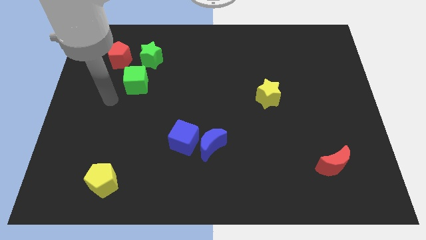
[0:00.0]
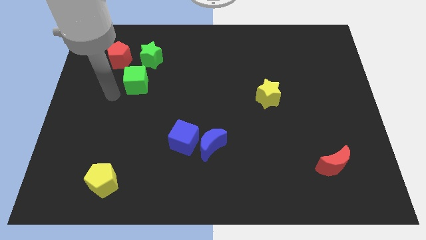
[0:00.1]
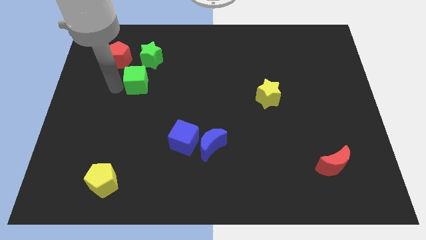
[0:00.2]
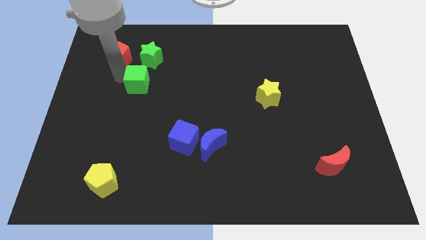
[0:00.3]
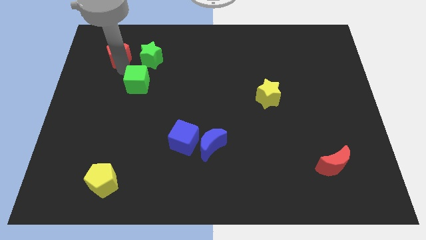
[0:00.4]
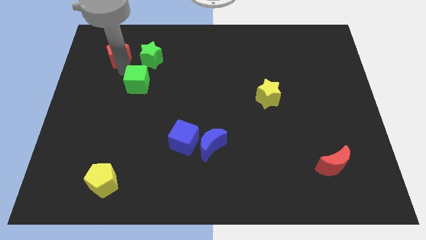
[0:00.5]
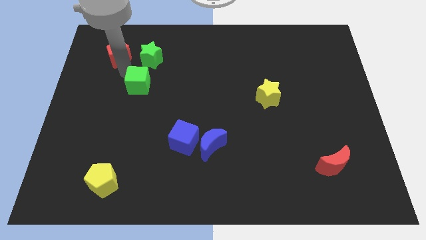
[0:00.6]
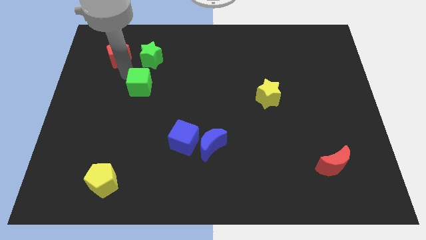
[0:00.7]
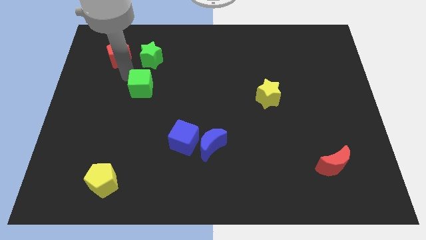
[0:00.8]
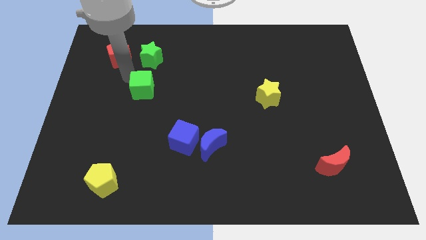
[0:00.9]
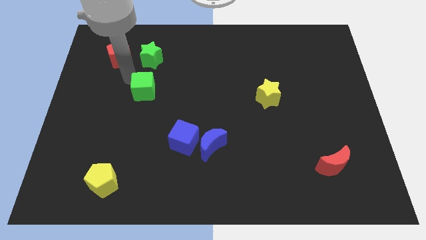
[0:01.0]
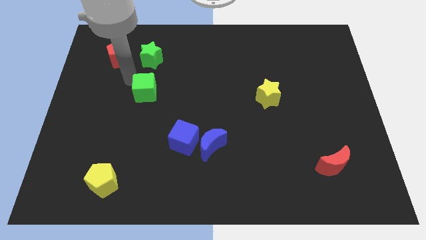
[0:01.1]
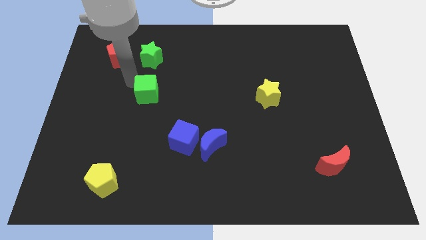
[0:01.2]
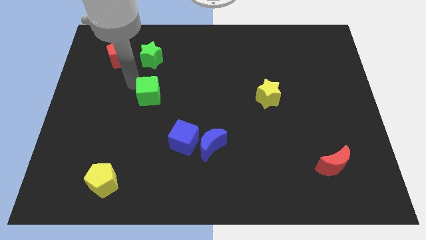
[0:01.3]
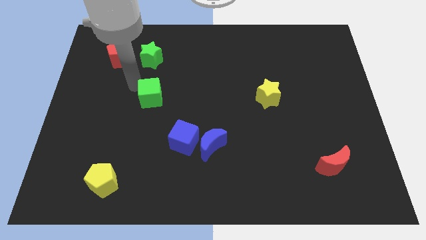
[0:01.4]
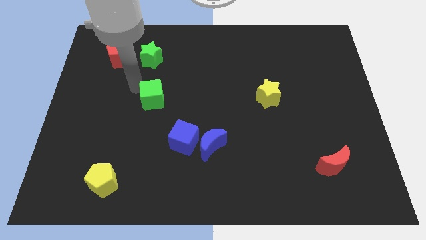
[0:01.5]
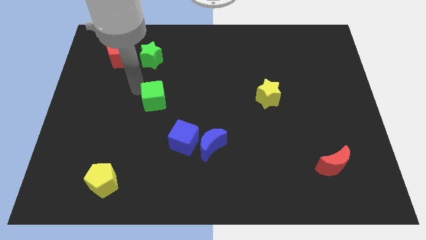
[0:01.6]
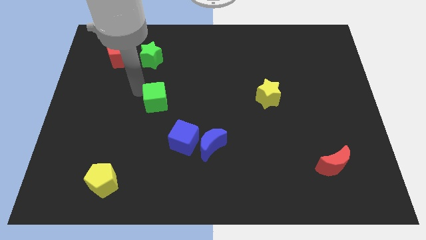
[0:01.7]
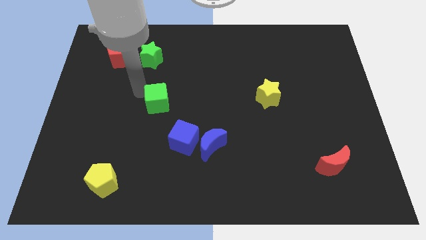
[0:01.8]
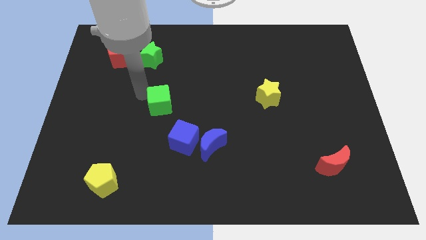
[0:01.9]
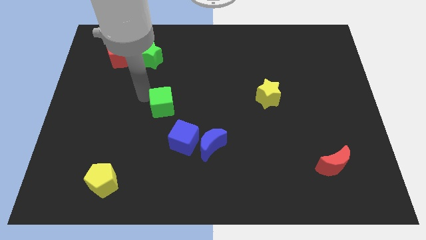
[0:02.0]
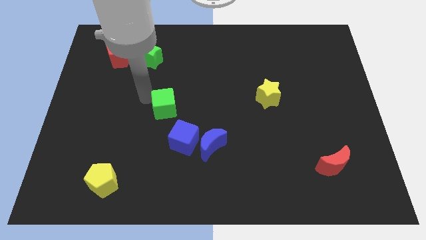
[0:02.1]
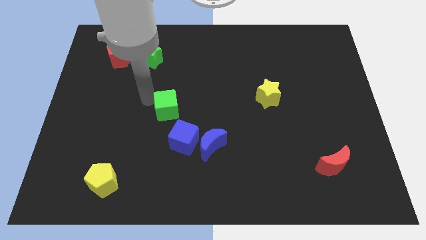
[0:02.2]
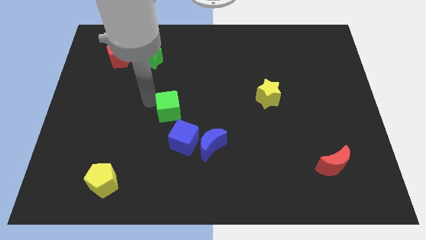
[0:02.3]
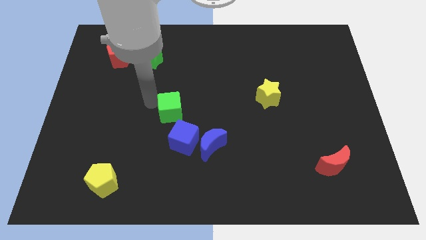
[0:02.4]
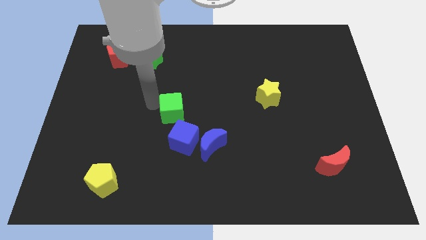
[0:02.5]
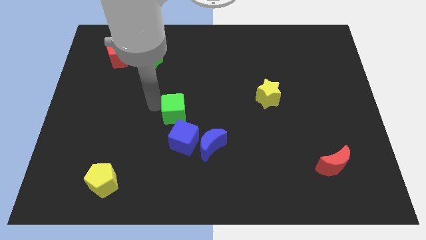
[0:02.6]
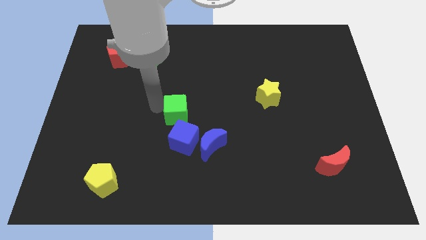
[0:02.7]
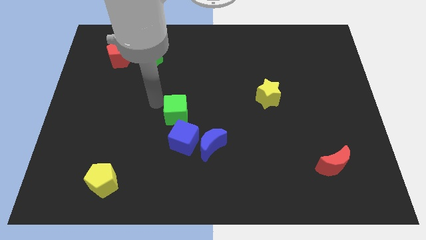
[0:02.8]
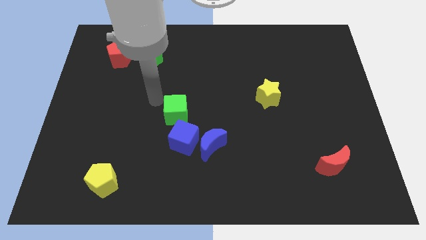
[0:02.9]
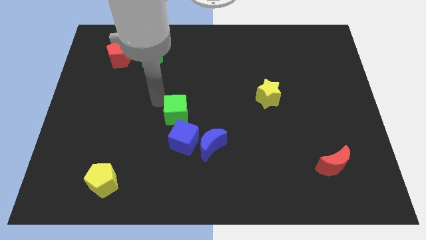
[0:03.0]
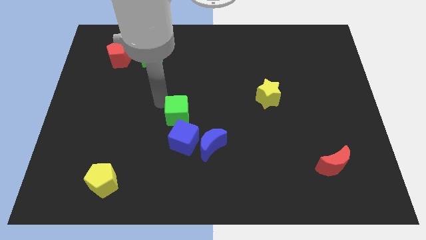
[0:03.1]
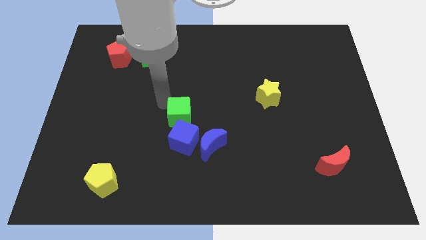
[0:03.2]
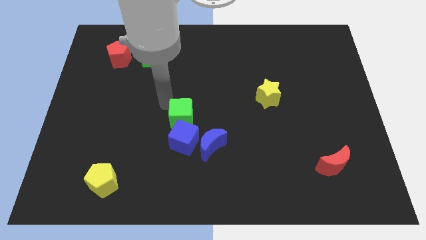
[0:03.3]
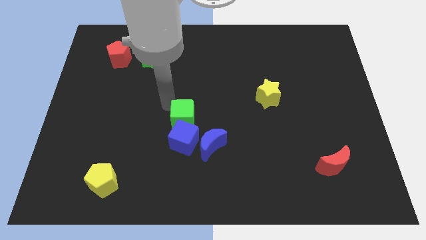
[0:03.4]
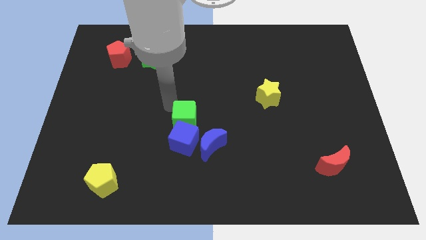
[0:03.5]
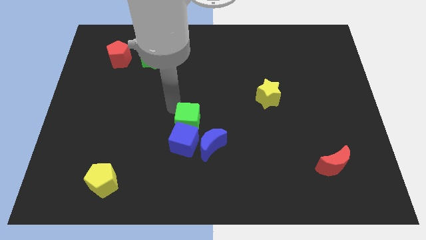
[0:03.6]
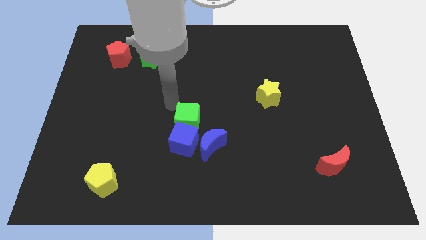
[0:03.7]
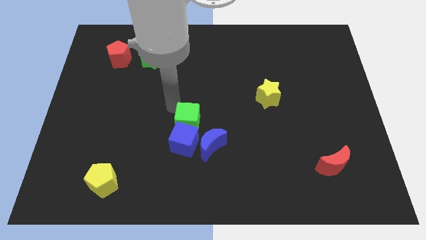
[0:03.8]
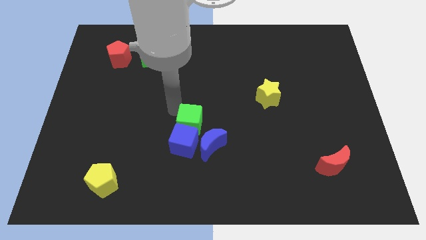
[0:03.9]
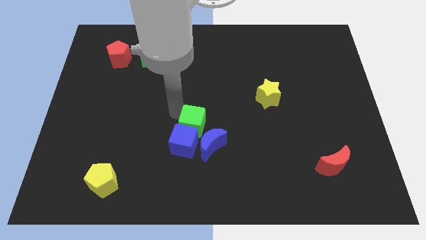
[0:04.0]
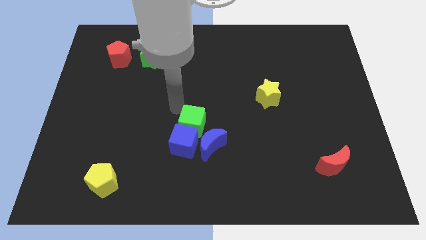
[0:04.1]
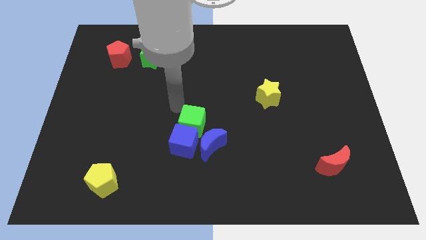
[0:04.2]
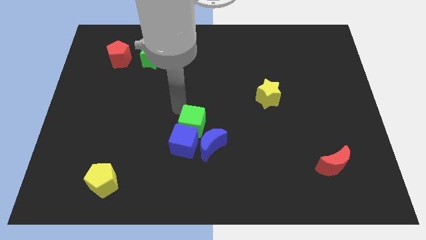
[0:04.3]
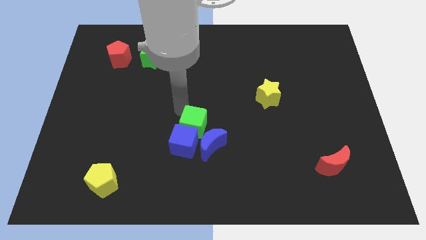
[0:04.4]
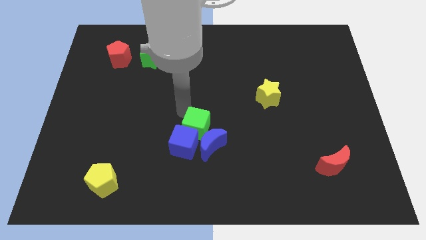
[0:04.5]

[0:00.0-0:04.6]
push the green cube close to the blue moon

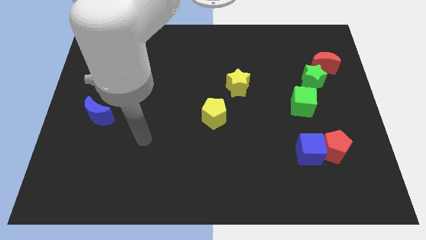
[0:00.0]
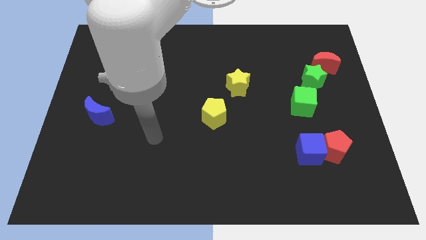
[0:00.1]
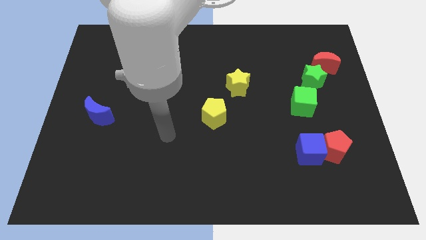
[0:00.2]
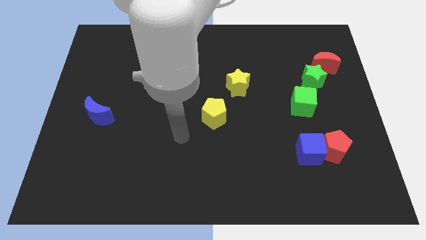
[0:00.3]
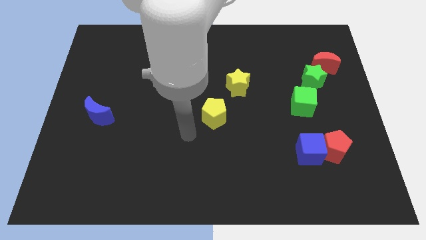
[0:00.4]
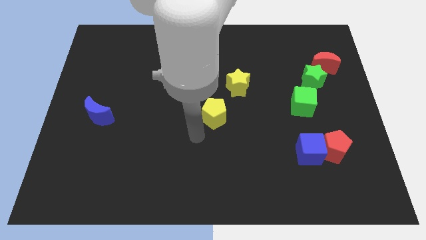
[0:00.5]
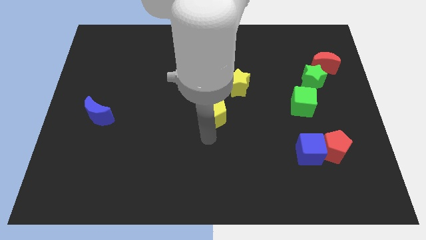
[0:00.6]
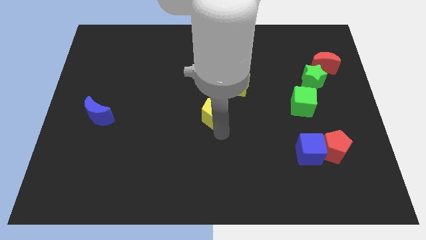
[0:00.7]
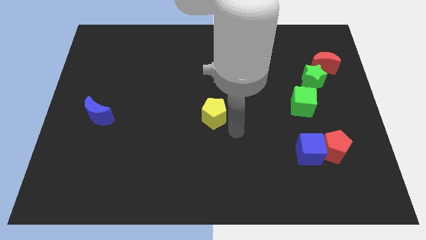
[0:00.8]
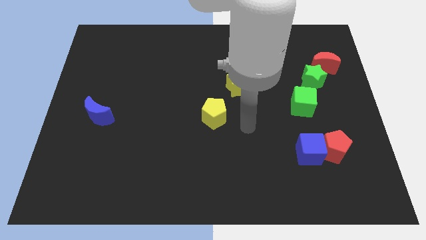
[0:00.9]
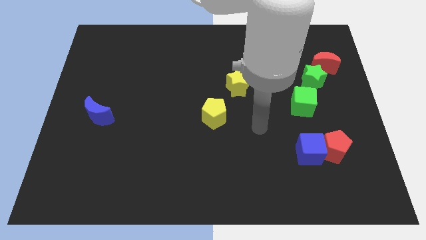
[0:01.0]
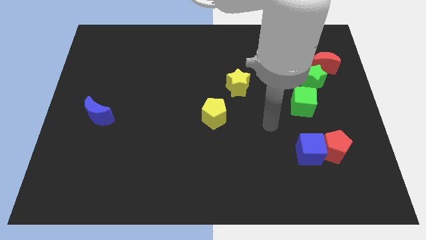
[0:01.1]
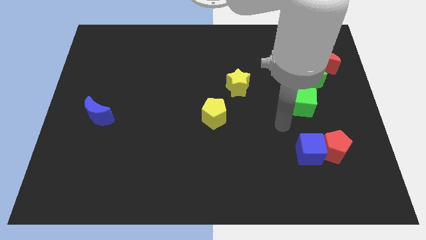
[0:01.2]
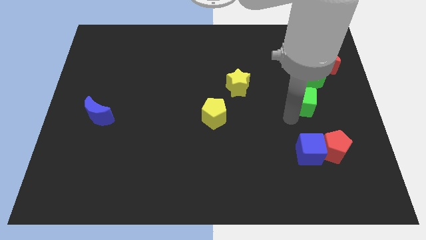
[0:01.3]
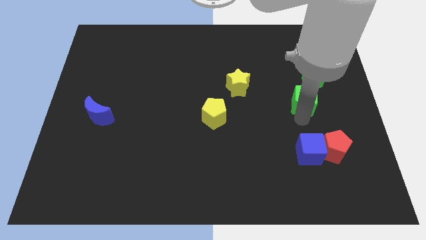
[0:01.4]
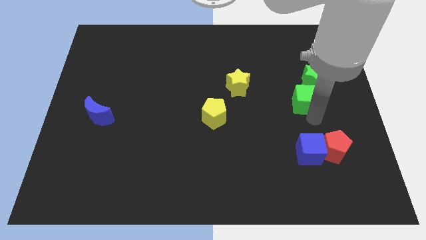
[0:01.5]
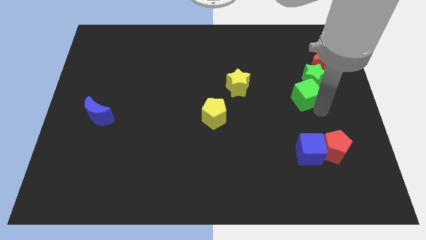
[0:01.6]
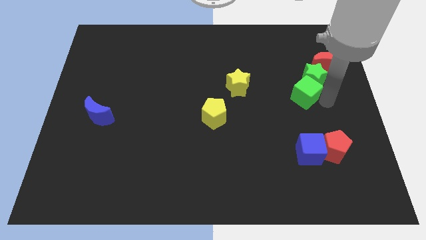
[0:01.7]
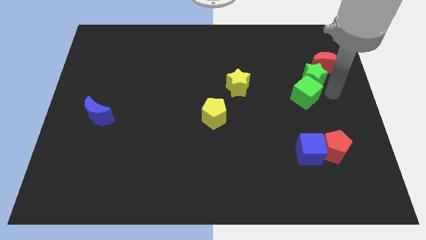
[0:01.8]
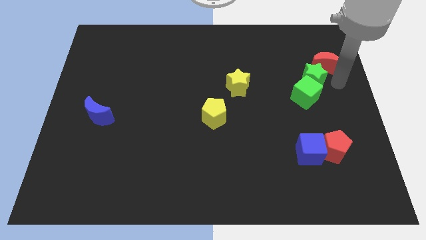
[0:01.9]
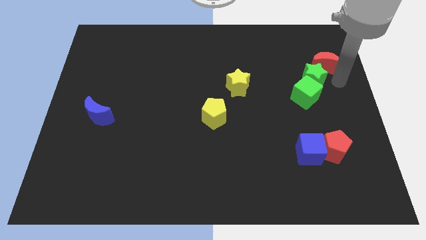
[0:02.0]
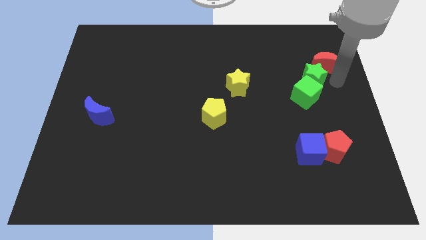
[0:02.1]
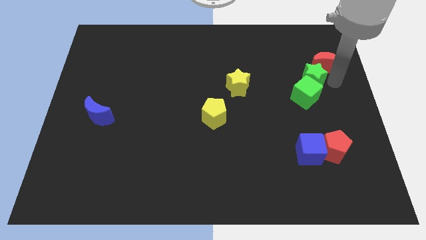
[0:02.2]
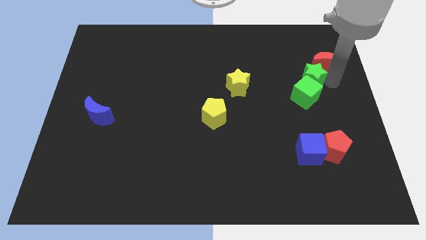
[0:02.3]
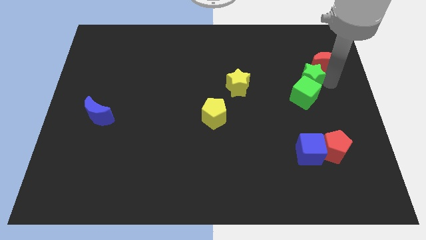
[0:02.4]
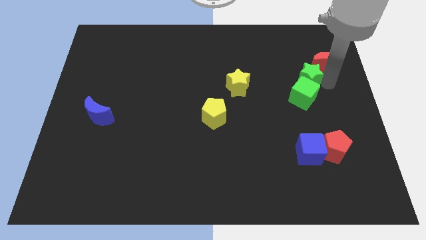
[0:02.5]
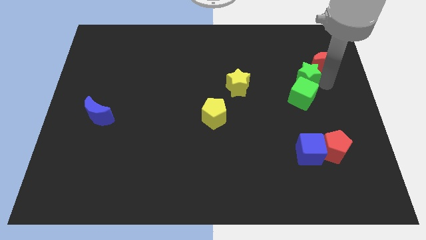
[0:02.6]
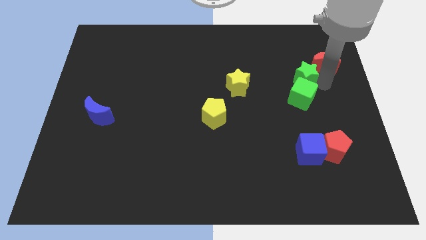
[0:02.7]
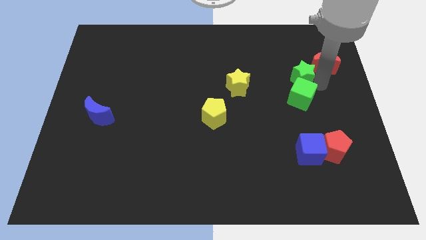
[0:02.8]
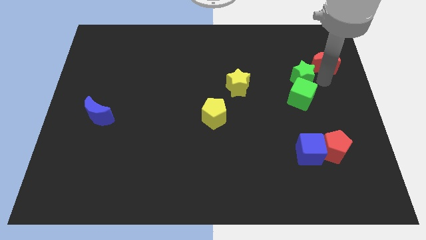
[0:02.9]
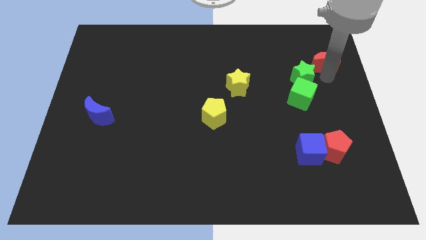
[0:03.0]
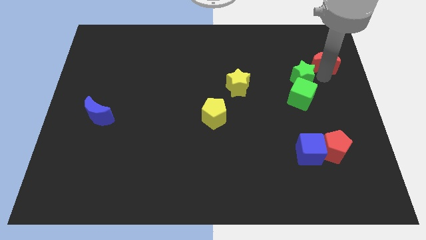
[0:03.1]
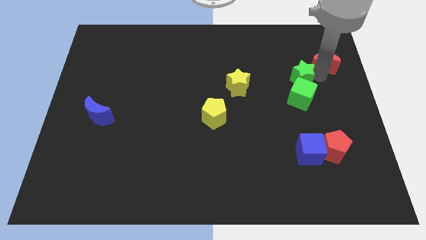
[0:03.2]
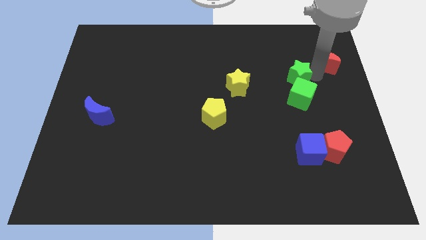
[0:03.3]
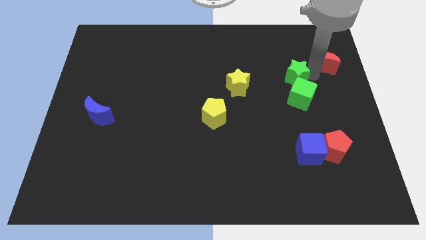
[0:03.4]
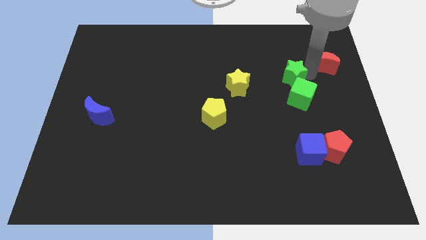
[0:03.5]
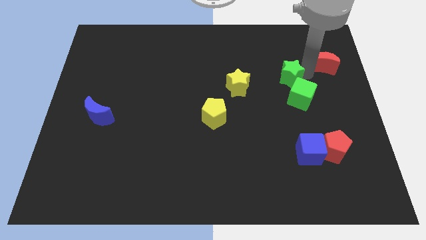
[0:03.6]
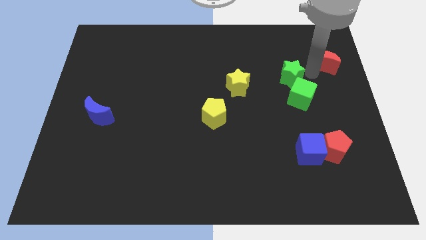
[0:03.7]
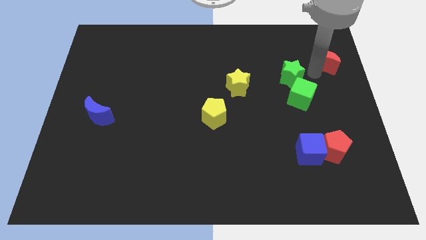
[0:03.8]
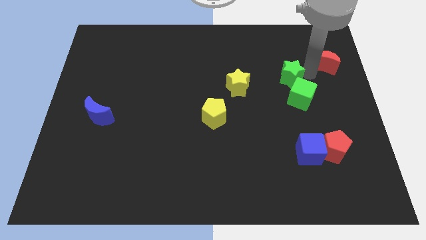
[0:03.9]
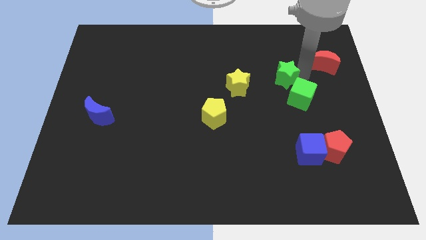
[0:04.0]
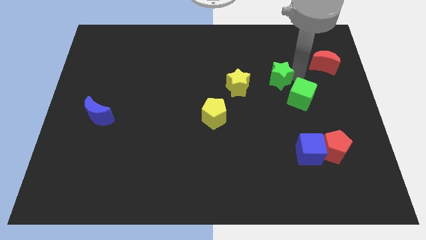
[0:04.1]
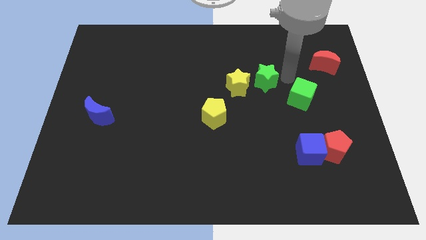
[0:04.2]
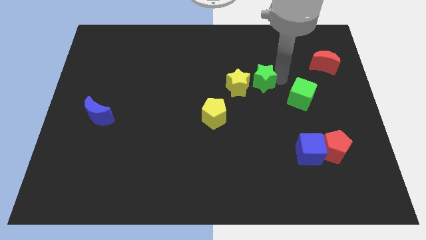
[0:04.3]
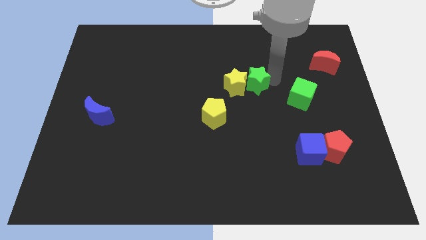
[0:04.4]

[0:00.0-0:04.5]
put the green star to the yellow star
